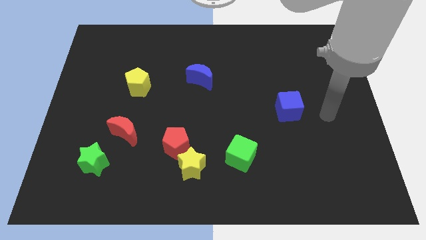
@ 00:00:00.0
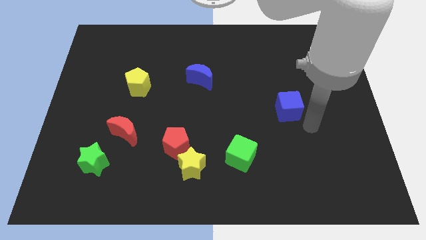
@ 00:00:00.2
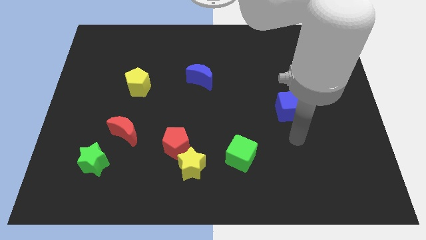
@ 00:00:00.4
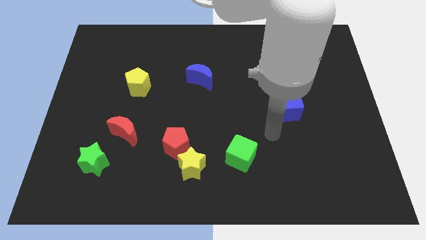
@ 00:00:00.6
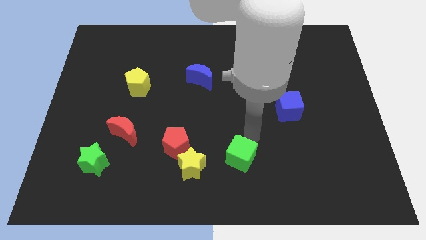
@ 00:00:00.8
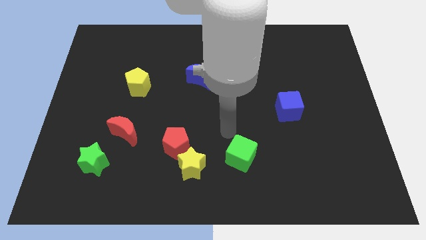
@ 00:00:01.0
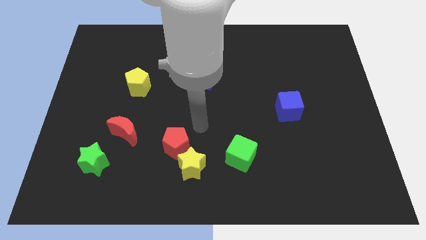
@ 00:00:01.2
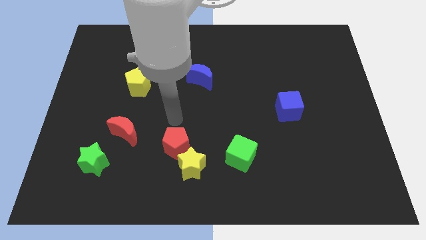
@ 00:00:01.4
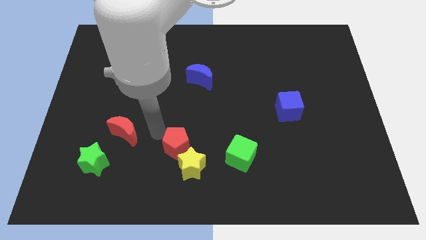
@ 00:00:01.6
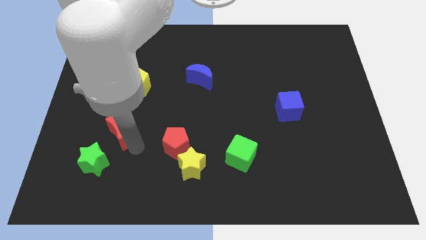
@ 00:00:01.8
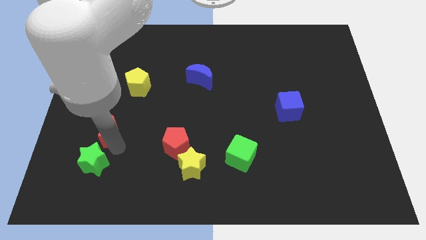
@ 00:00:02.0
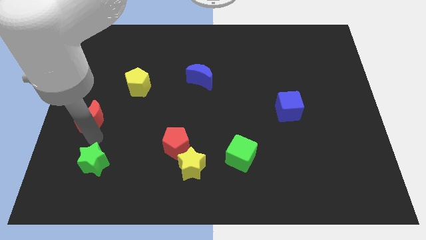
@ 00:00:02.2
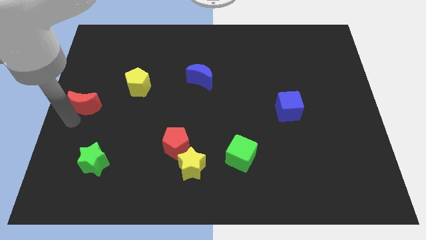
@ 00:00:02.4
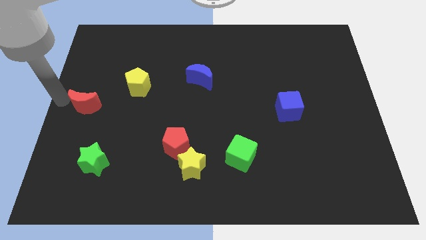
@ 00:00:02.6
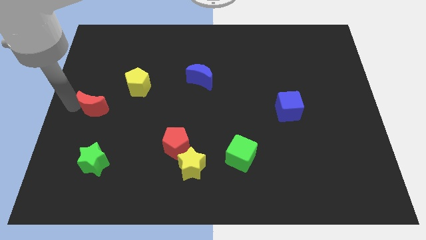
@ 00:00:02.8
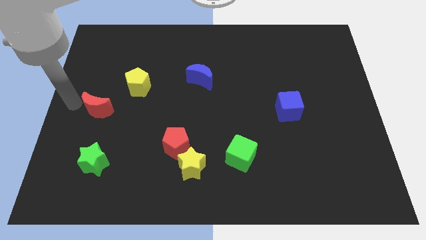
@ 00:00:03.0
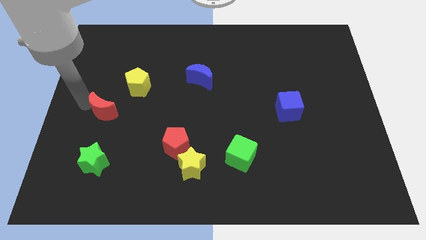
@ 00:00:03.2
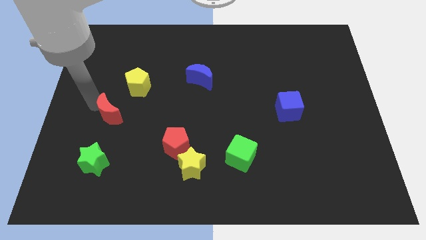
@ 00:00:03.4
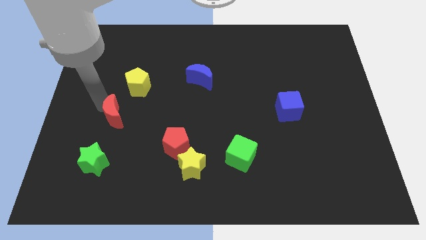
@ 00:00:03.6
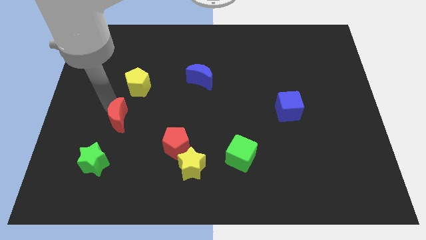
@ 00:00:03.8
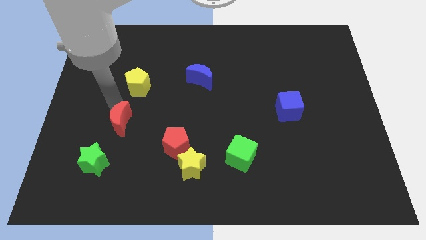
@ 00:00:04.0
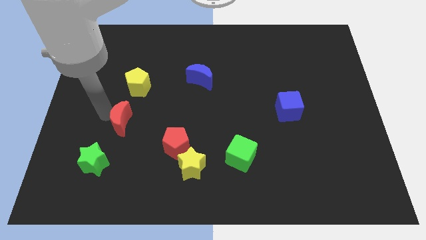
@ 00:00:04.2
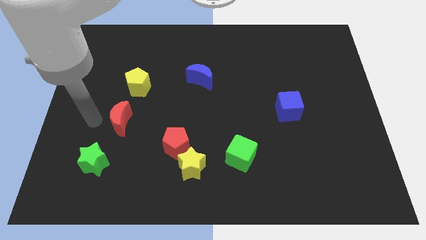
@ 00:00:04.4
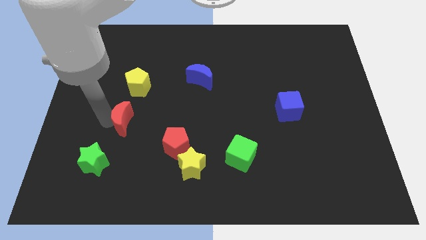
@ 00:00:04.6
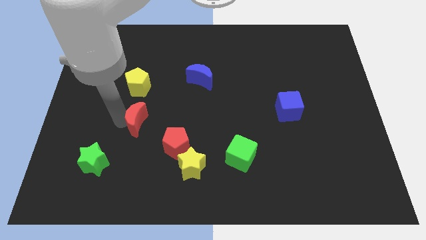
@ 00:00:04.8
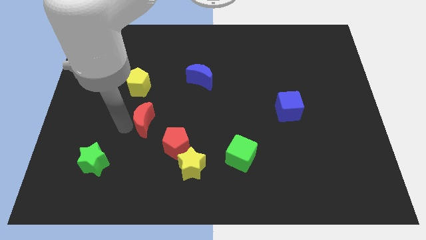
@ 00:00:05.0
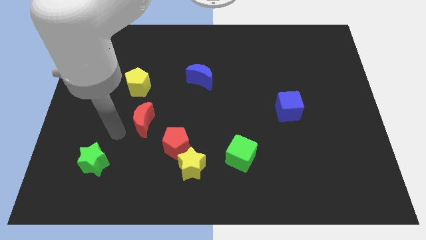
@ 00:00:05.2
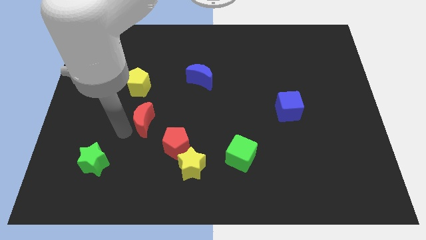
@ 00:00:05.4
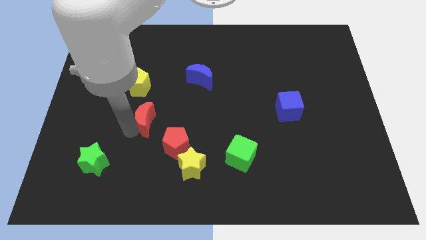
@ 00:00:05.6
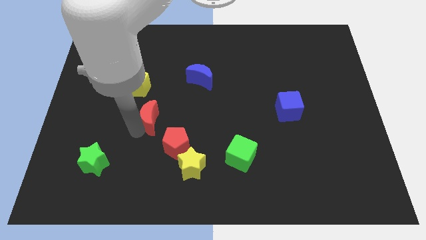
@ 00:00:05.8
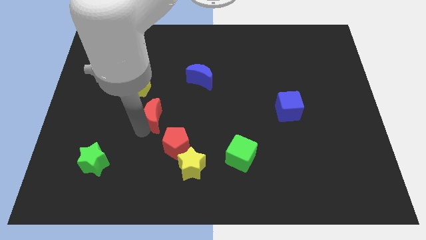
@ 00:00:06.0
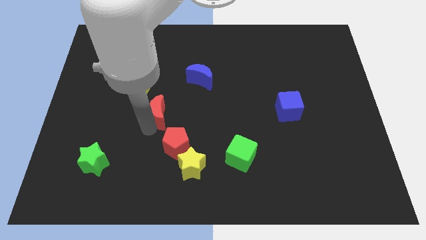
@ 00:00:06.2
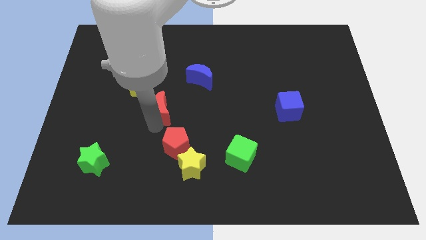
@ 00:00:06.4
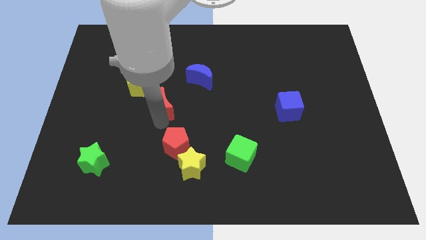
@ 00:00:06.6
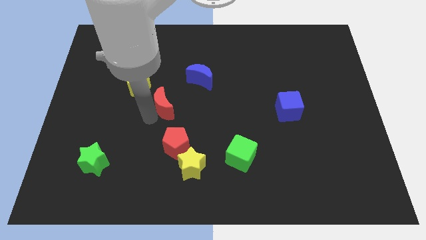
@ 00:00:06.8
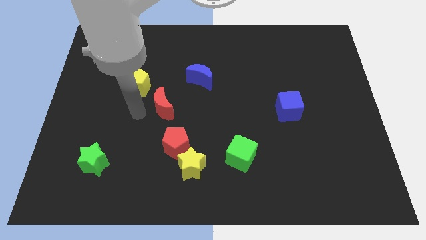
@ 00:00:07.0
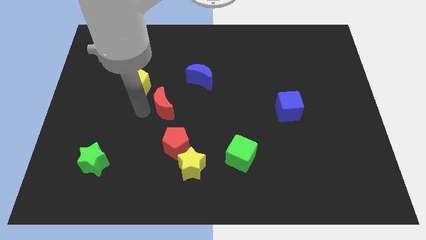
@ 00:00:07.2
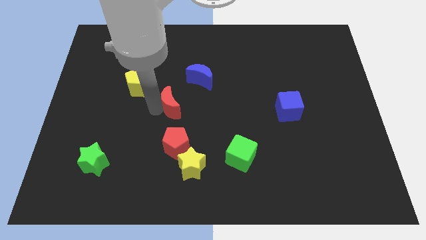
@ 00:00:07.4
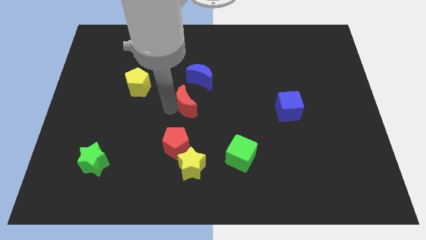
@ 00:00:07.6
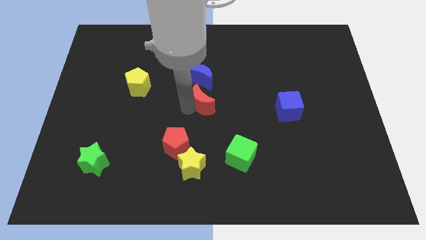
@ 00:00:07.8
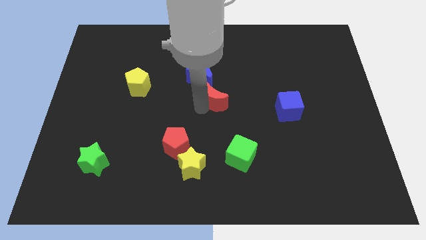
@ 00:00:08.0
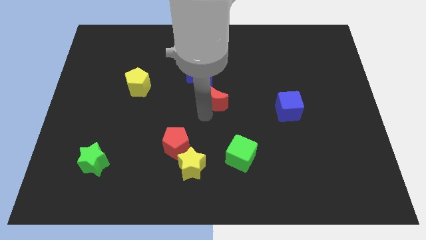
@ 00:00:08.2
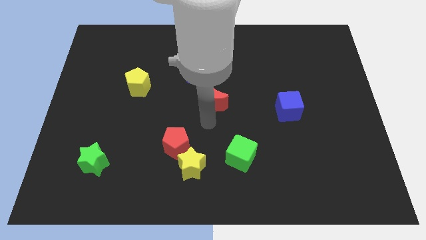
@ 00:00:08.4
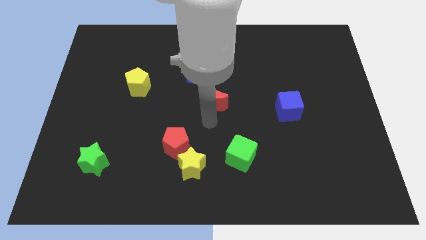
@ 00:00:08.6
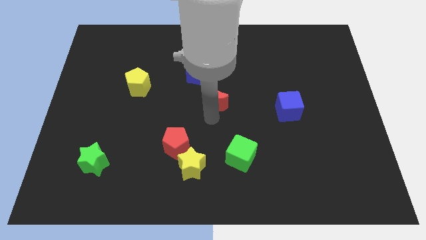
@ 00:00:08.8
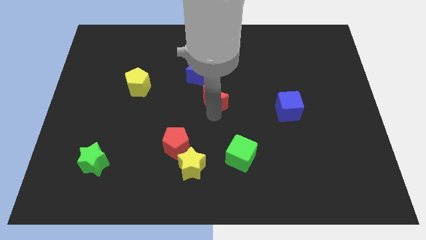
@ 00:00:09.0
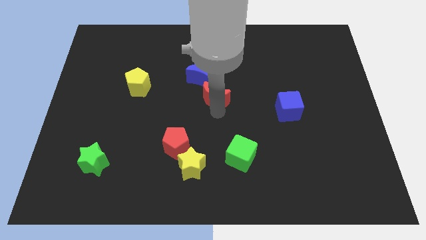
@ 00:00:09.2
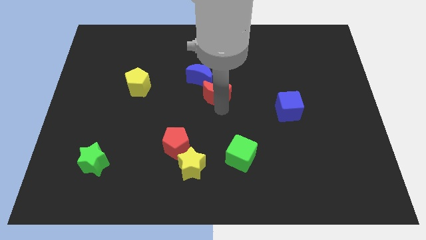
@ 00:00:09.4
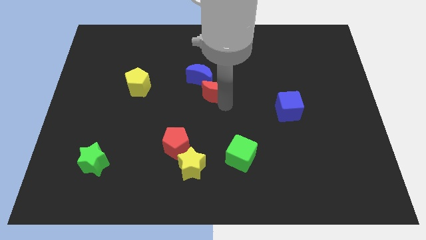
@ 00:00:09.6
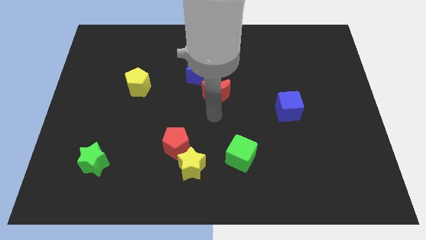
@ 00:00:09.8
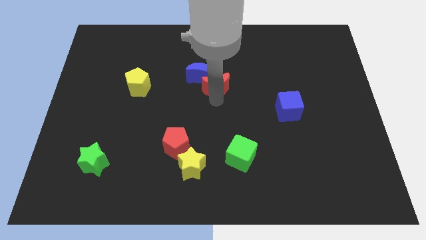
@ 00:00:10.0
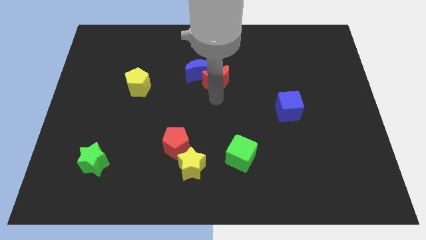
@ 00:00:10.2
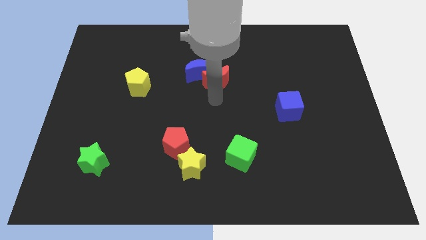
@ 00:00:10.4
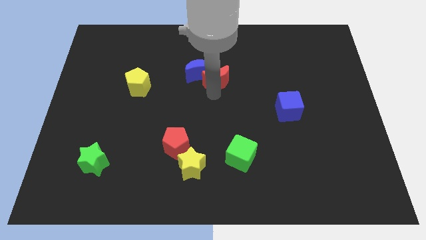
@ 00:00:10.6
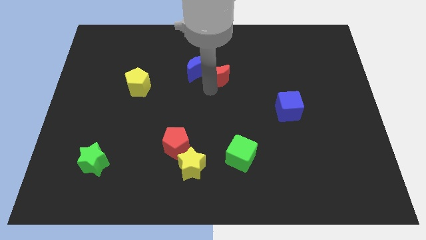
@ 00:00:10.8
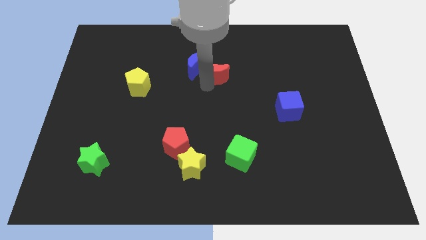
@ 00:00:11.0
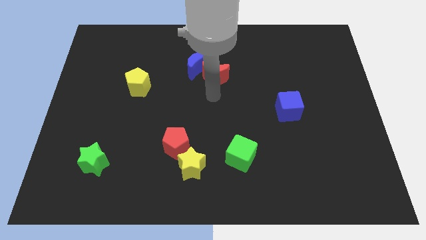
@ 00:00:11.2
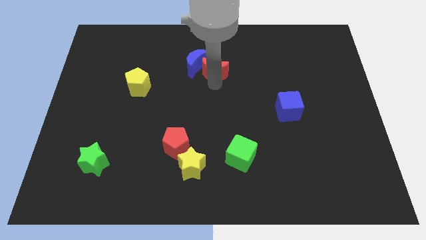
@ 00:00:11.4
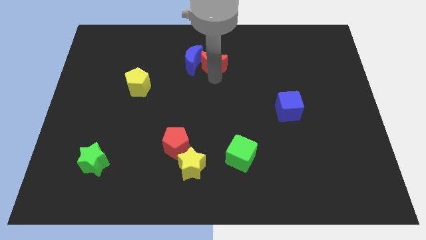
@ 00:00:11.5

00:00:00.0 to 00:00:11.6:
slide the red moon to the top right side of the blue moon

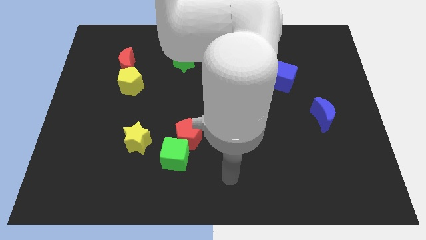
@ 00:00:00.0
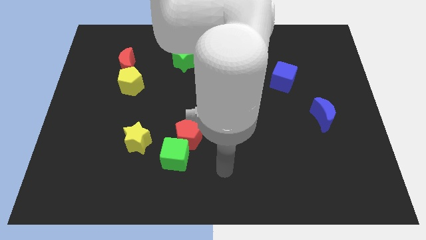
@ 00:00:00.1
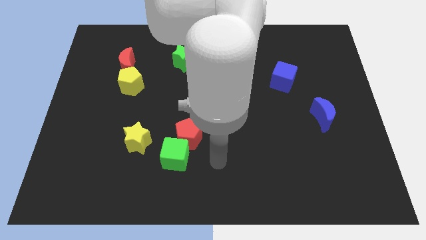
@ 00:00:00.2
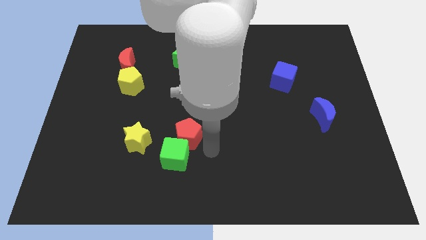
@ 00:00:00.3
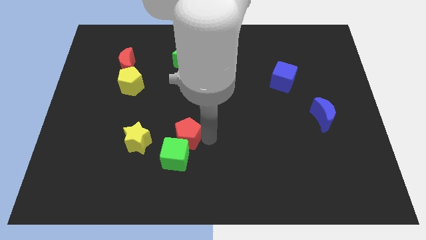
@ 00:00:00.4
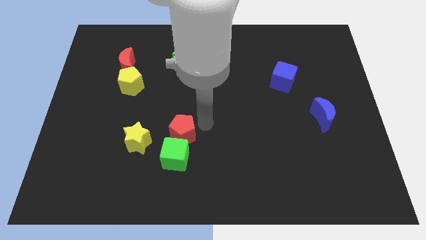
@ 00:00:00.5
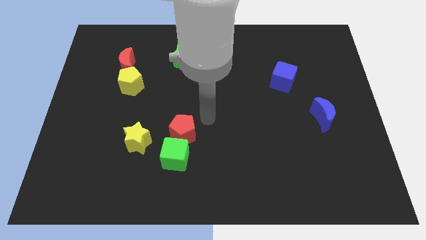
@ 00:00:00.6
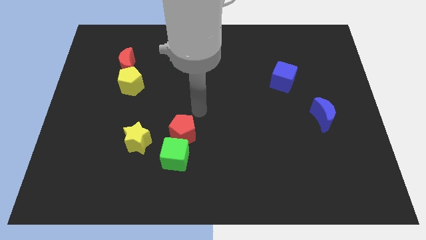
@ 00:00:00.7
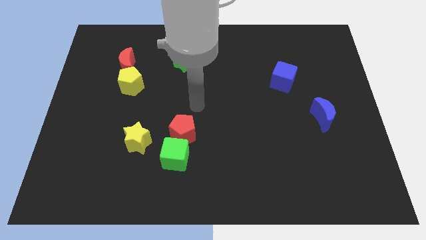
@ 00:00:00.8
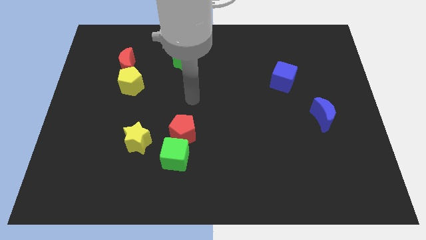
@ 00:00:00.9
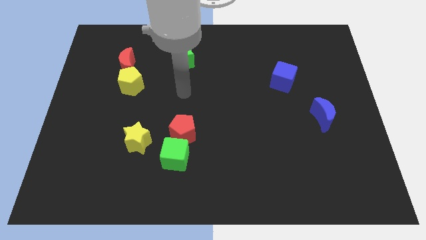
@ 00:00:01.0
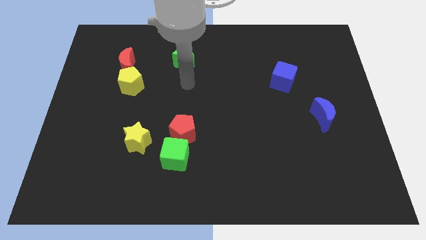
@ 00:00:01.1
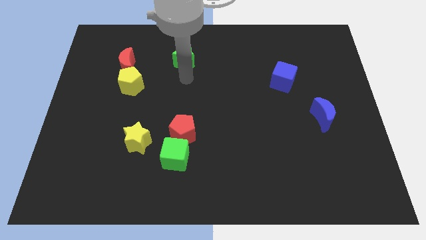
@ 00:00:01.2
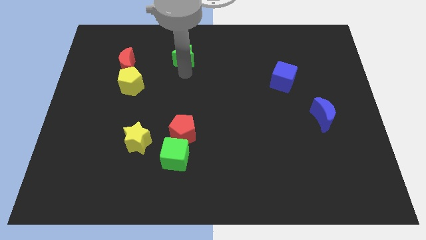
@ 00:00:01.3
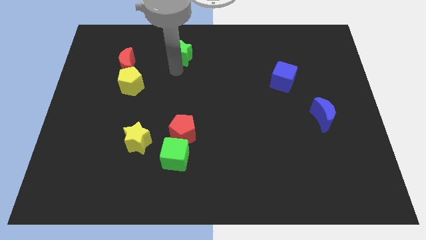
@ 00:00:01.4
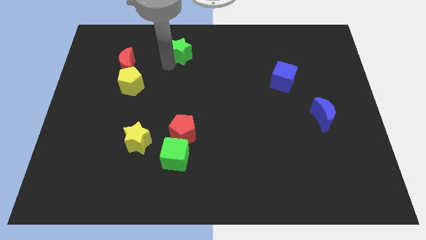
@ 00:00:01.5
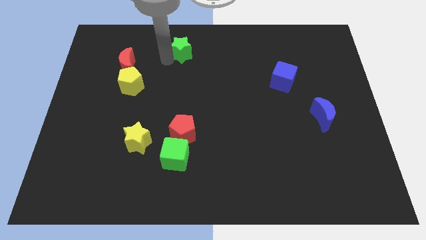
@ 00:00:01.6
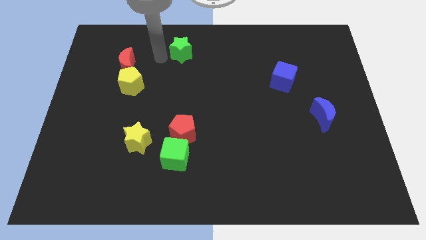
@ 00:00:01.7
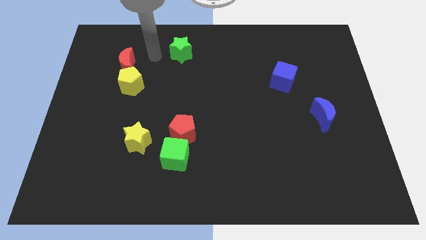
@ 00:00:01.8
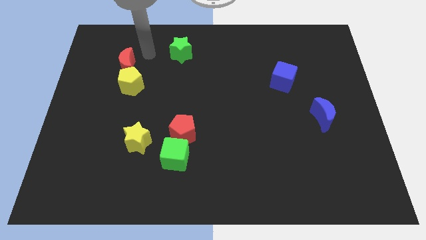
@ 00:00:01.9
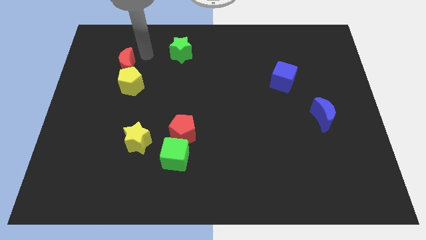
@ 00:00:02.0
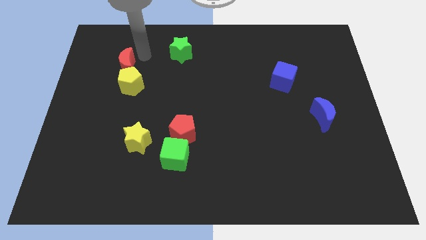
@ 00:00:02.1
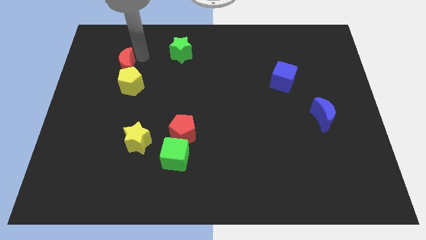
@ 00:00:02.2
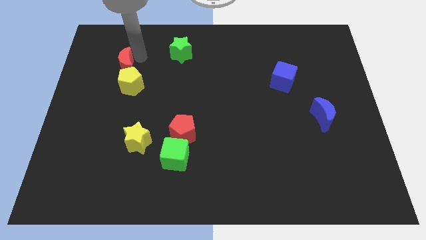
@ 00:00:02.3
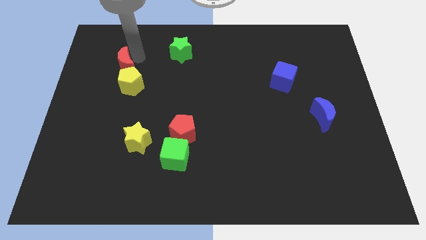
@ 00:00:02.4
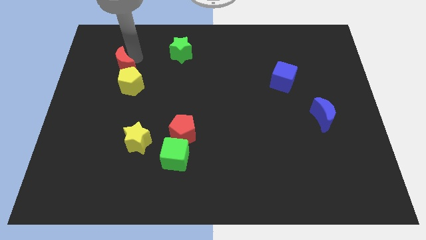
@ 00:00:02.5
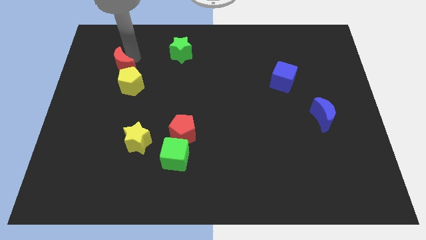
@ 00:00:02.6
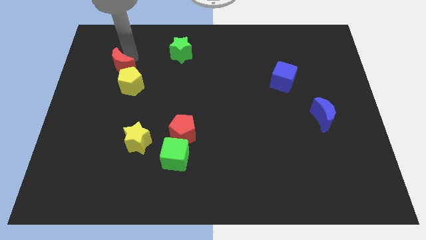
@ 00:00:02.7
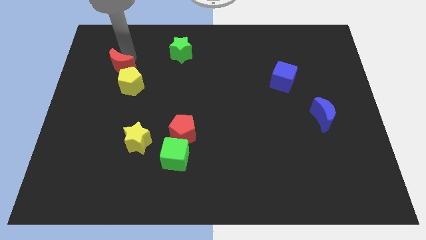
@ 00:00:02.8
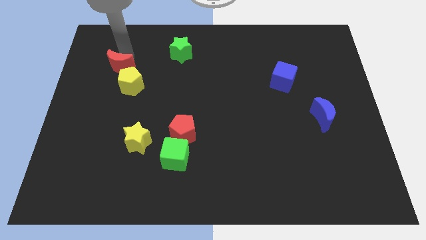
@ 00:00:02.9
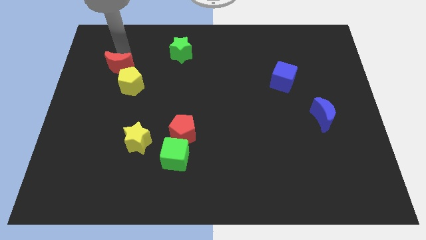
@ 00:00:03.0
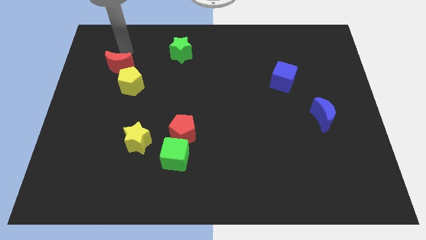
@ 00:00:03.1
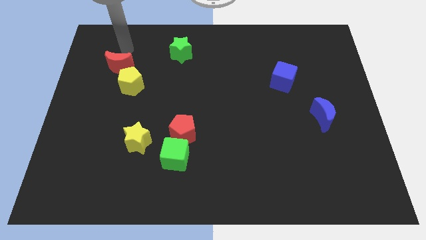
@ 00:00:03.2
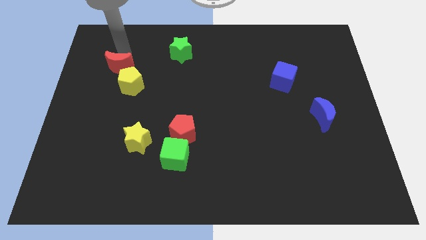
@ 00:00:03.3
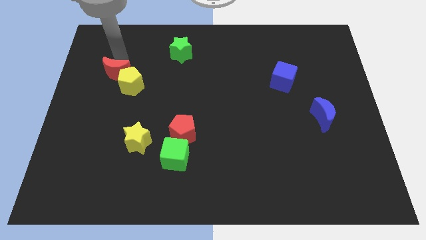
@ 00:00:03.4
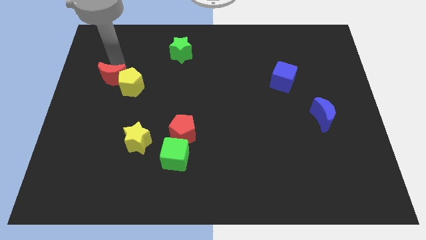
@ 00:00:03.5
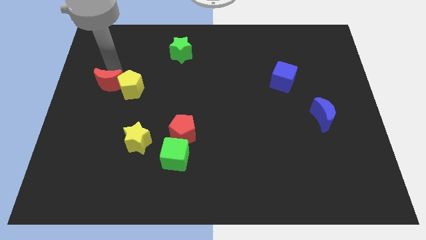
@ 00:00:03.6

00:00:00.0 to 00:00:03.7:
push the red moon to the bottom left of the yellow pentagon
